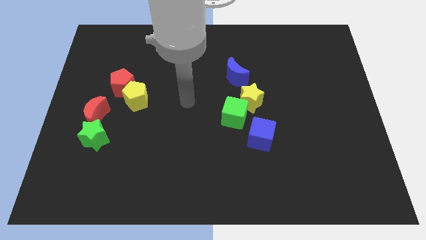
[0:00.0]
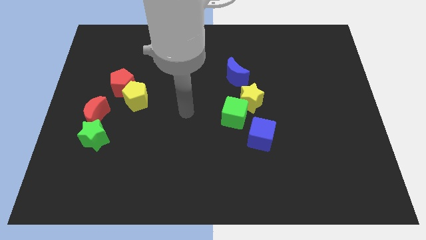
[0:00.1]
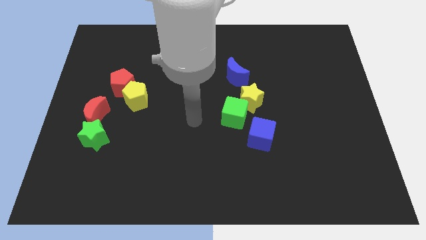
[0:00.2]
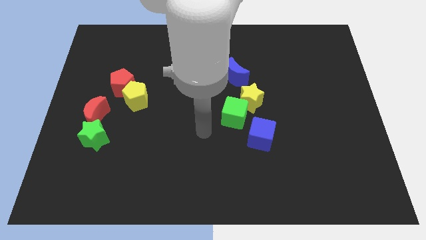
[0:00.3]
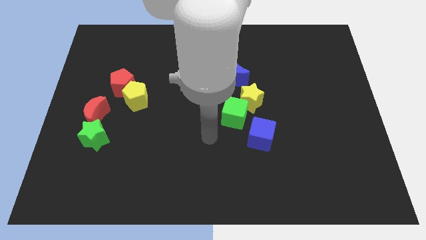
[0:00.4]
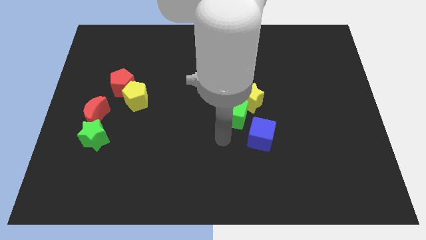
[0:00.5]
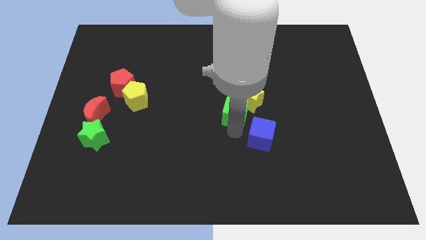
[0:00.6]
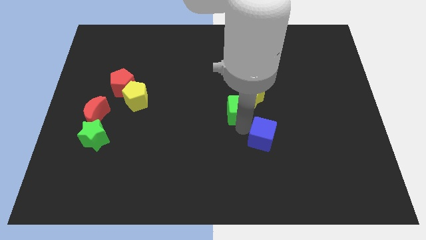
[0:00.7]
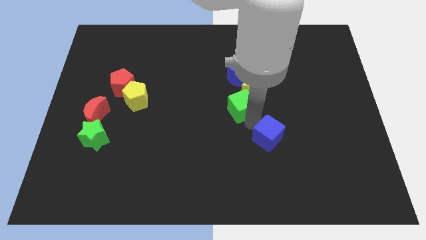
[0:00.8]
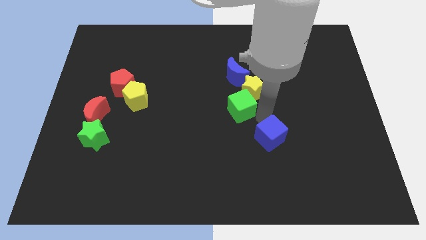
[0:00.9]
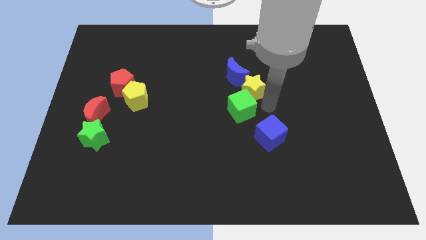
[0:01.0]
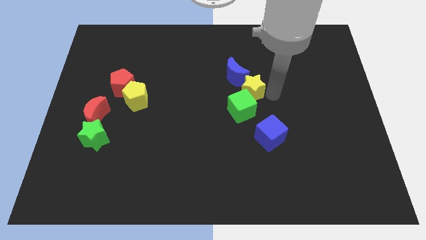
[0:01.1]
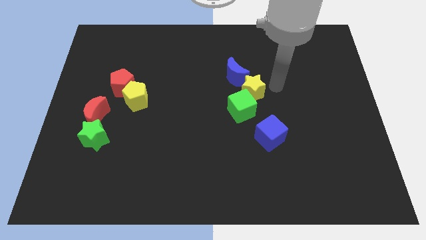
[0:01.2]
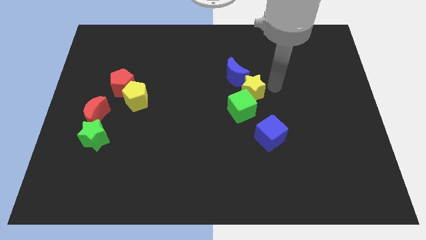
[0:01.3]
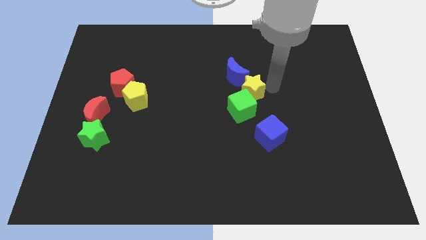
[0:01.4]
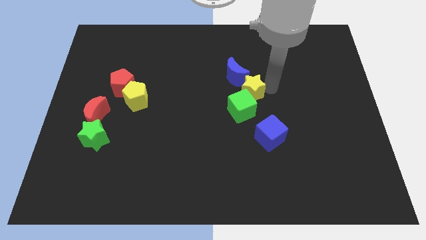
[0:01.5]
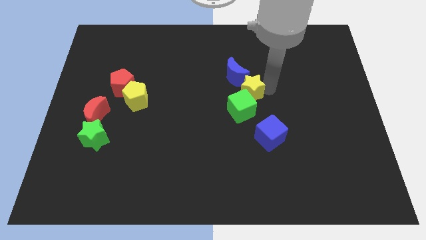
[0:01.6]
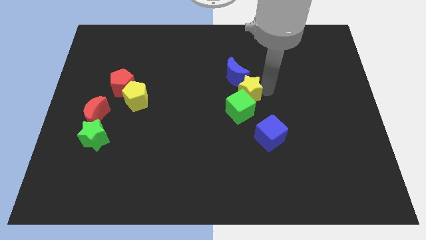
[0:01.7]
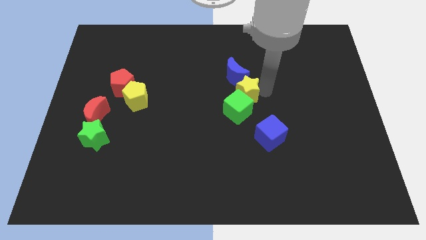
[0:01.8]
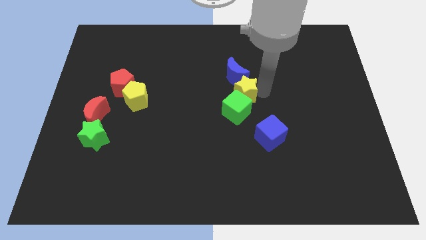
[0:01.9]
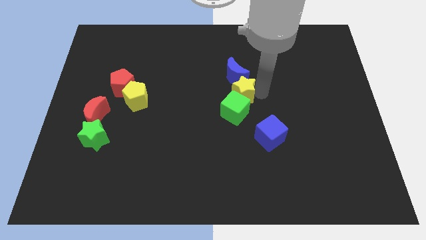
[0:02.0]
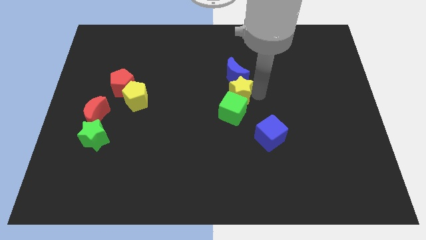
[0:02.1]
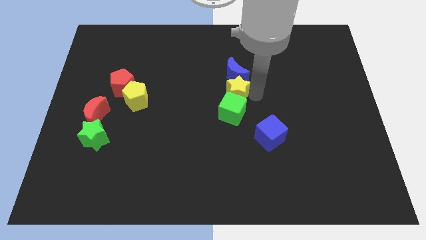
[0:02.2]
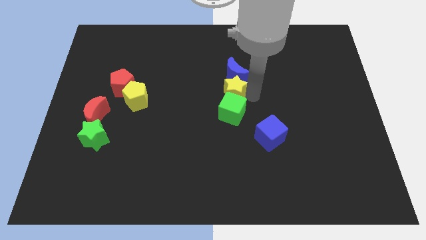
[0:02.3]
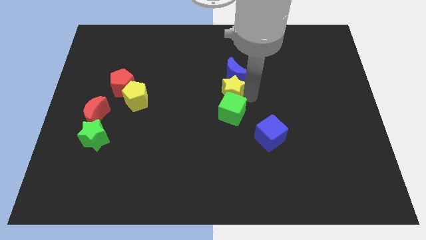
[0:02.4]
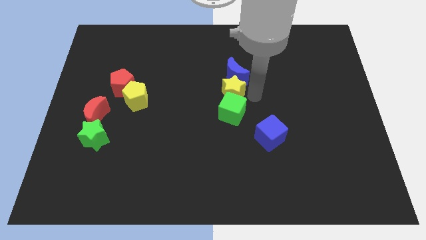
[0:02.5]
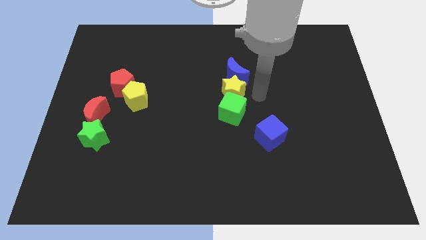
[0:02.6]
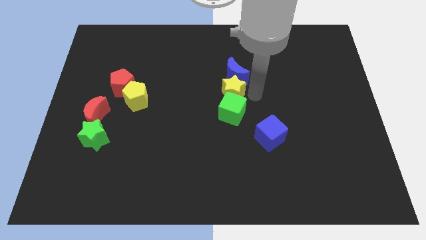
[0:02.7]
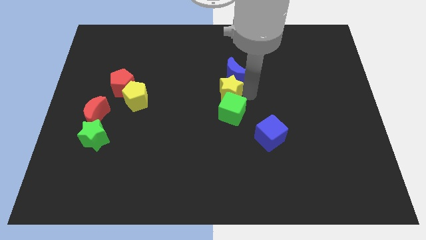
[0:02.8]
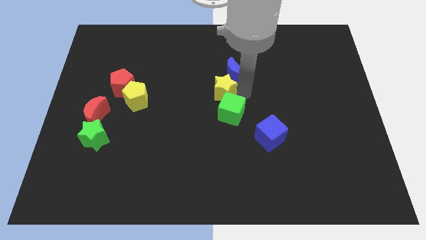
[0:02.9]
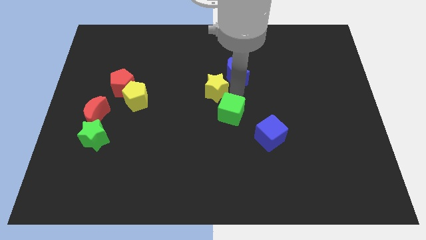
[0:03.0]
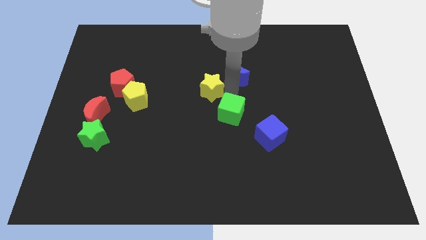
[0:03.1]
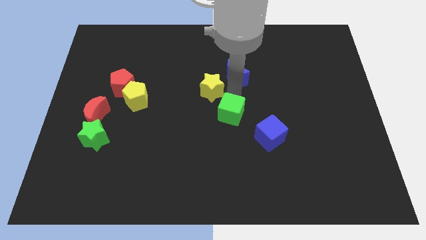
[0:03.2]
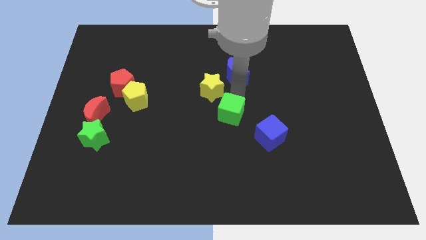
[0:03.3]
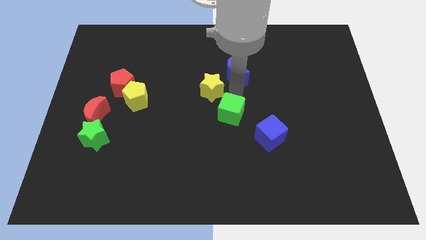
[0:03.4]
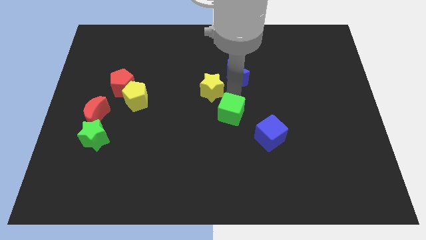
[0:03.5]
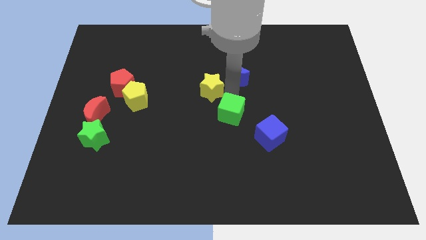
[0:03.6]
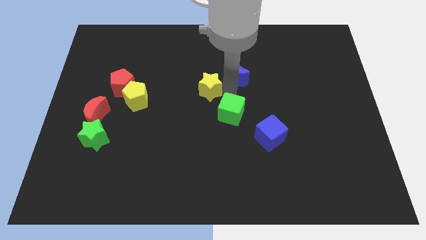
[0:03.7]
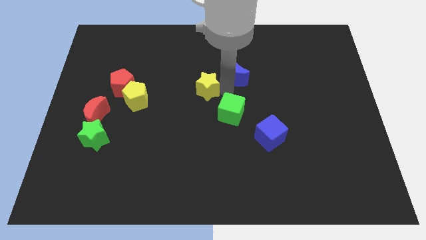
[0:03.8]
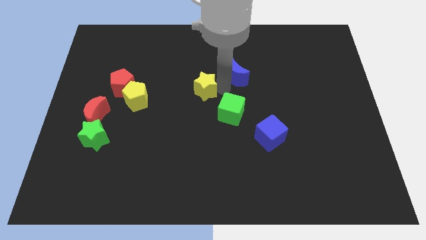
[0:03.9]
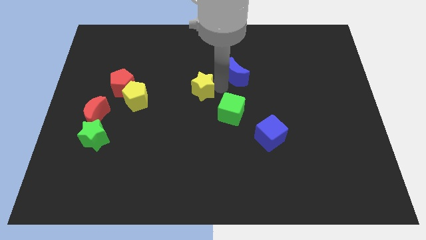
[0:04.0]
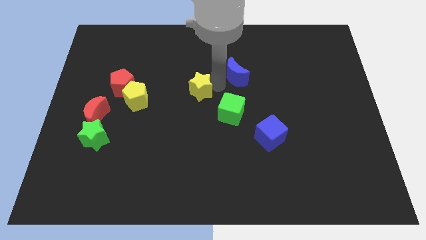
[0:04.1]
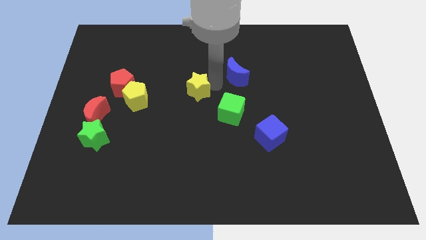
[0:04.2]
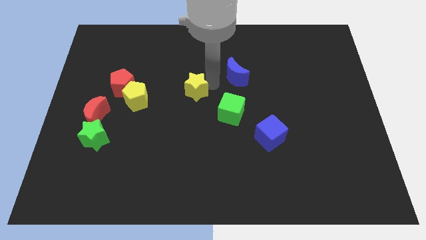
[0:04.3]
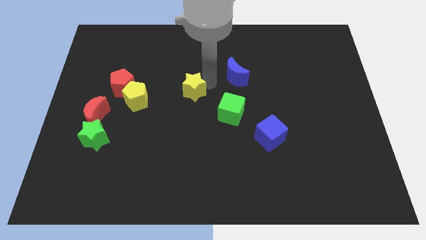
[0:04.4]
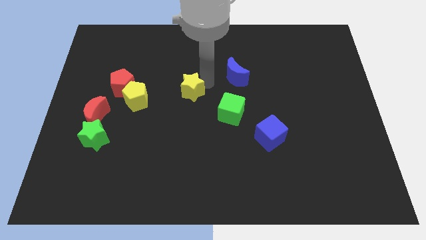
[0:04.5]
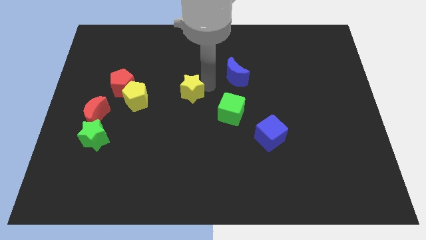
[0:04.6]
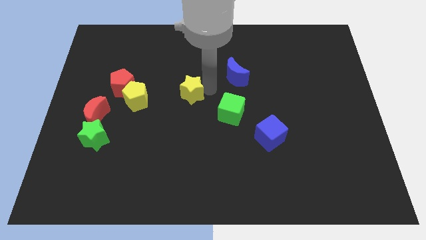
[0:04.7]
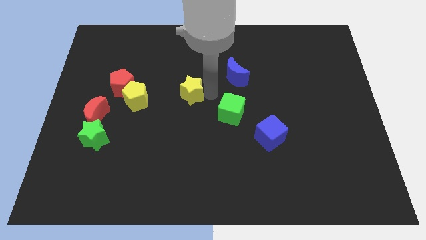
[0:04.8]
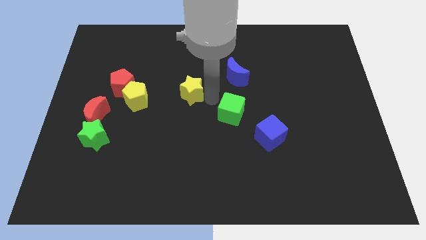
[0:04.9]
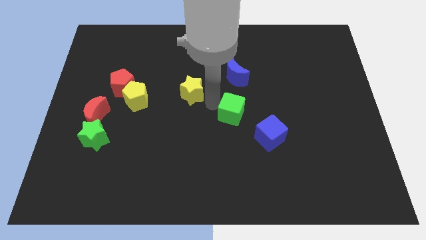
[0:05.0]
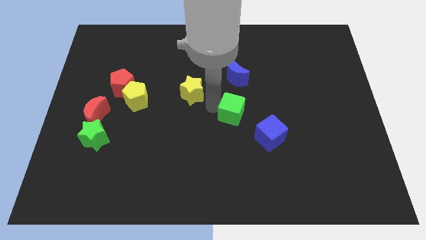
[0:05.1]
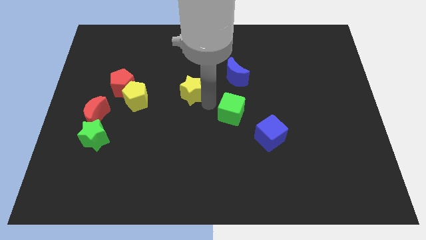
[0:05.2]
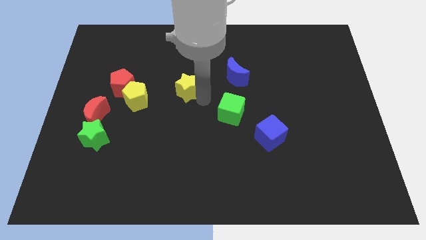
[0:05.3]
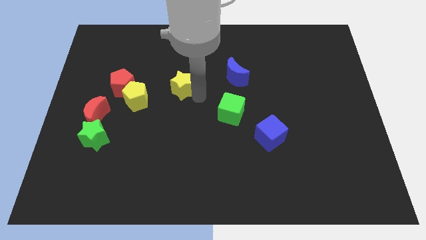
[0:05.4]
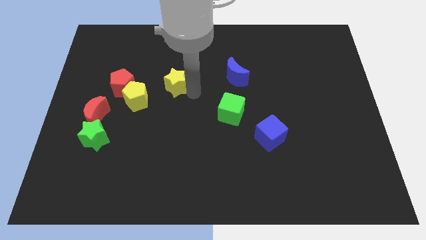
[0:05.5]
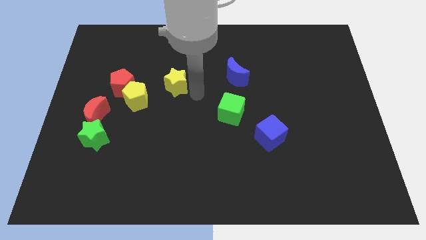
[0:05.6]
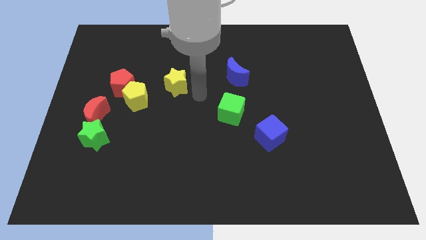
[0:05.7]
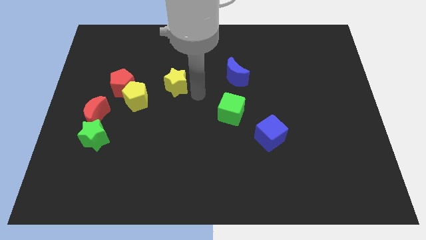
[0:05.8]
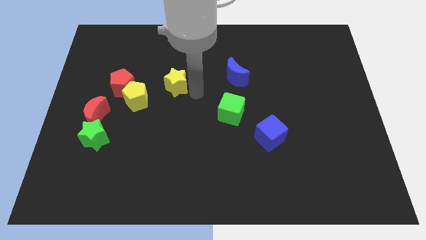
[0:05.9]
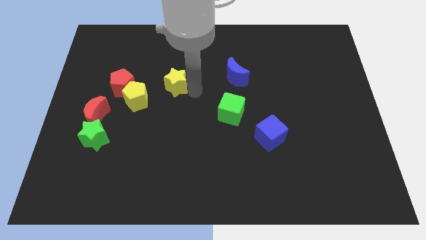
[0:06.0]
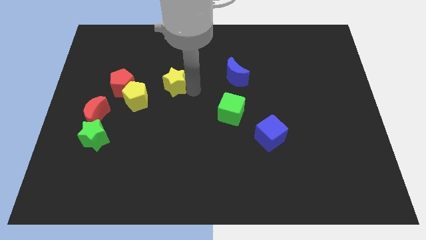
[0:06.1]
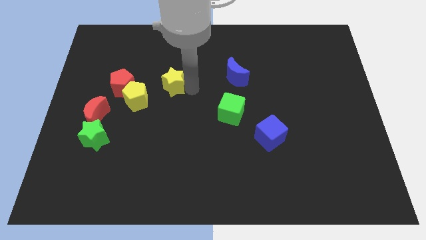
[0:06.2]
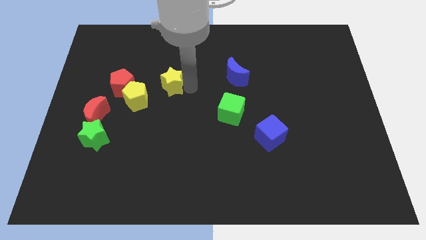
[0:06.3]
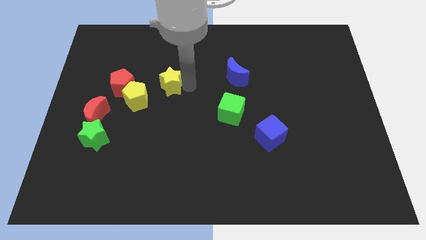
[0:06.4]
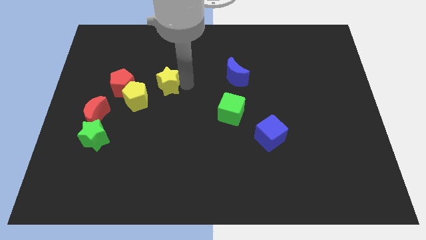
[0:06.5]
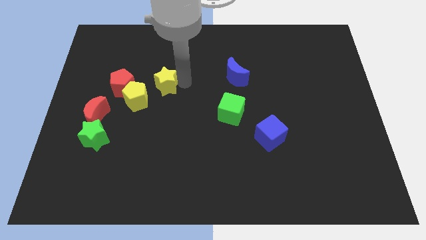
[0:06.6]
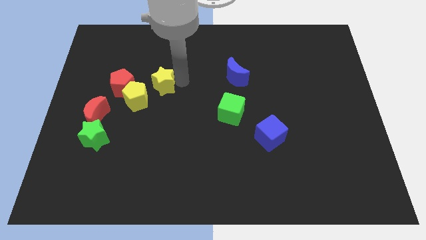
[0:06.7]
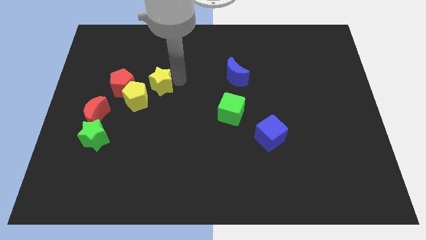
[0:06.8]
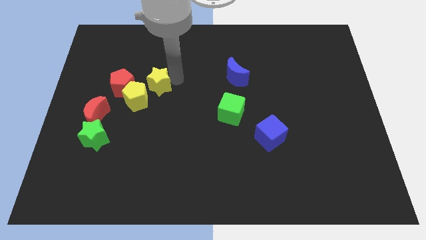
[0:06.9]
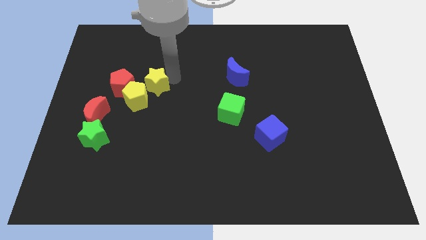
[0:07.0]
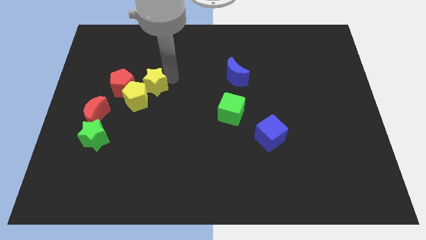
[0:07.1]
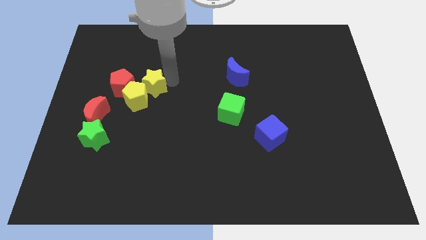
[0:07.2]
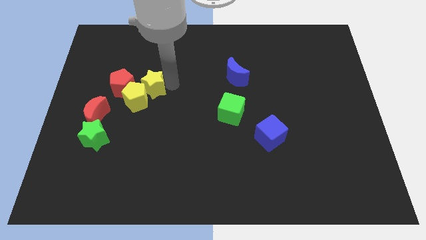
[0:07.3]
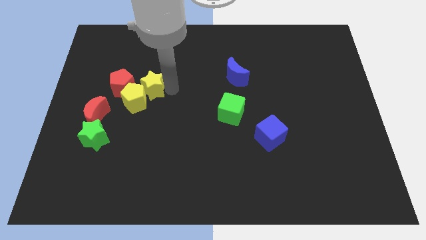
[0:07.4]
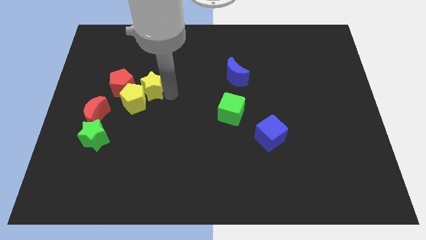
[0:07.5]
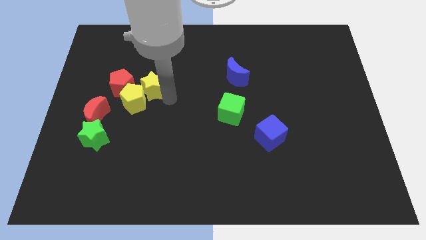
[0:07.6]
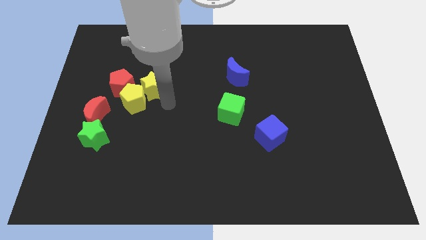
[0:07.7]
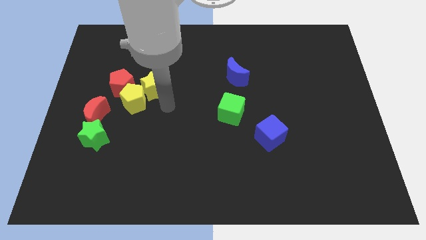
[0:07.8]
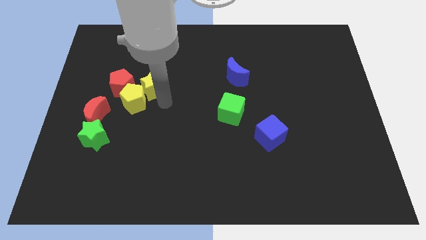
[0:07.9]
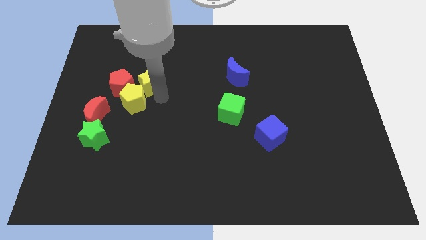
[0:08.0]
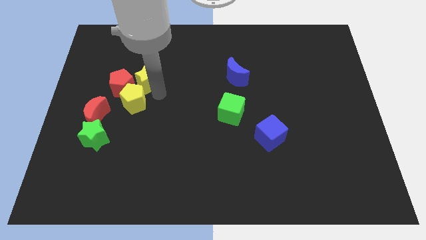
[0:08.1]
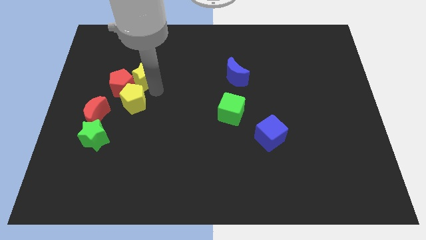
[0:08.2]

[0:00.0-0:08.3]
move the yellow star close to the red pentagon
